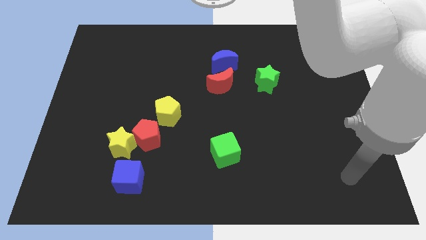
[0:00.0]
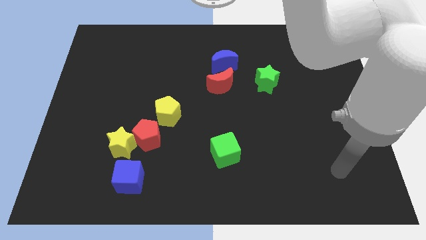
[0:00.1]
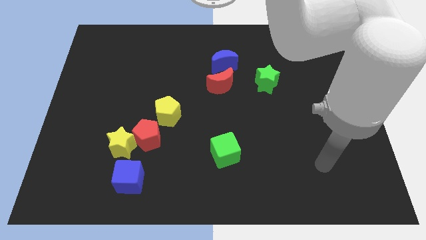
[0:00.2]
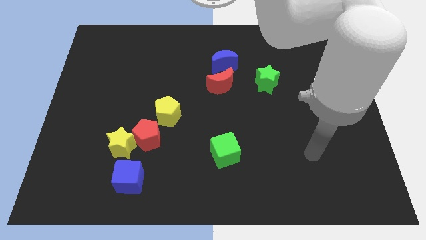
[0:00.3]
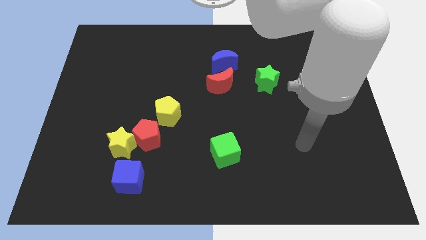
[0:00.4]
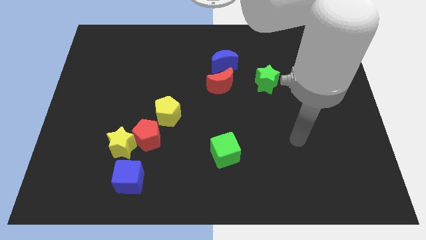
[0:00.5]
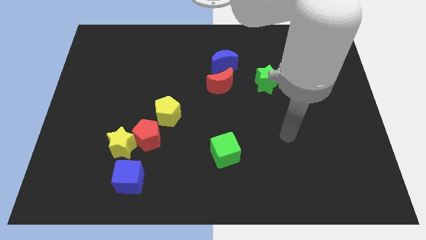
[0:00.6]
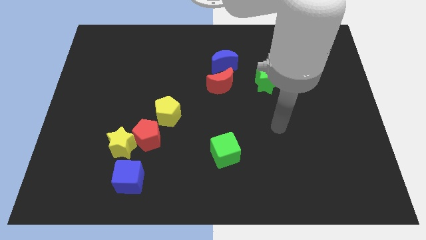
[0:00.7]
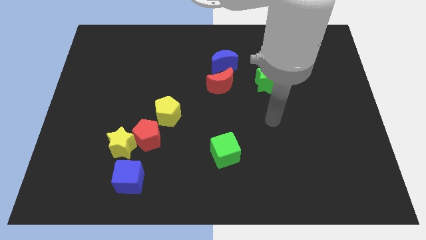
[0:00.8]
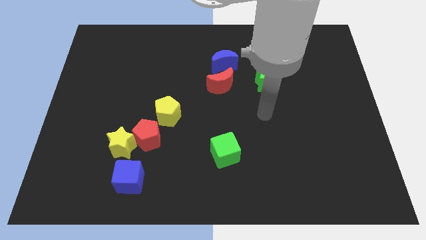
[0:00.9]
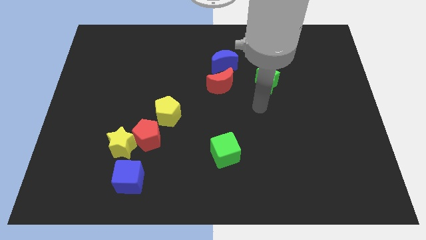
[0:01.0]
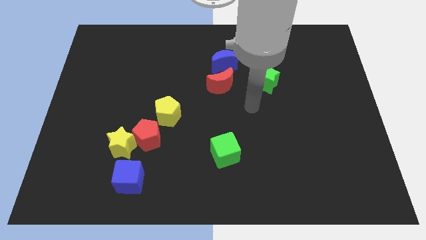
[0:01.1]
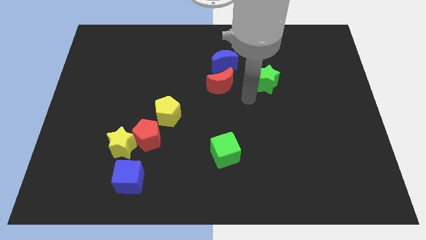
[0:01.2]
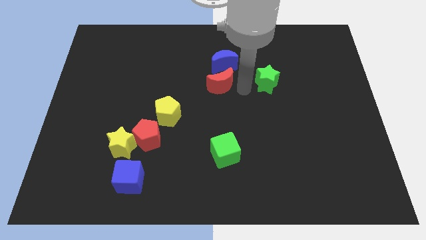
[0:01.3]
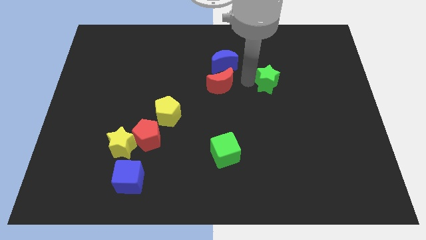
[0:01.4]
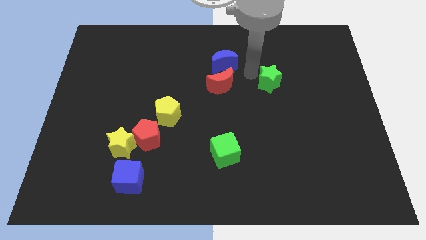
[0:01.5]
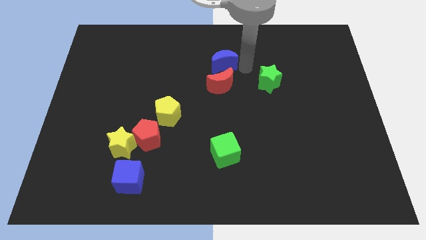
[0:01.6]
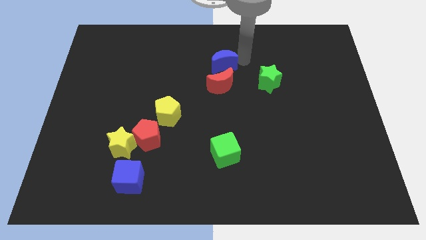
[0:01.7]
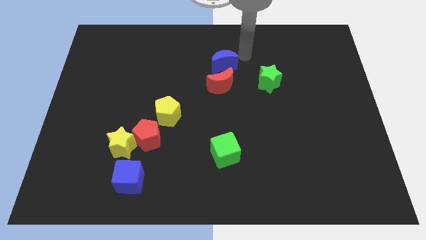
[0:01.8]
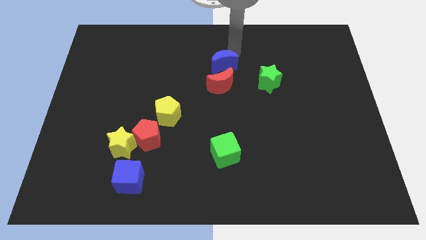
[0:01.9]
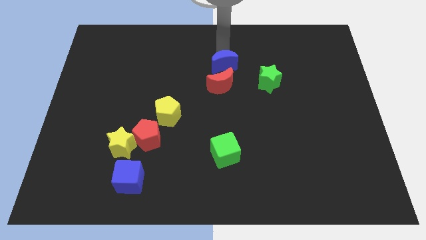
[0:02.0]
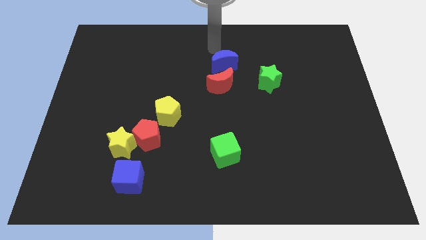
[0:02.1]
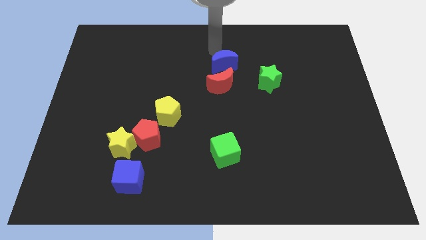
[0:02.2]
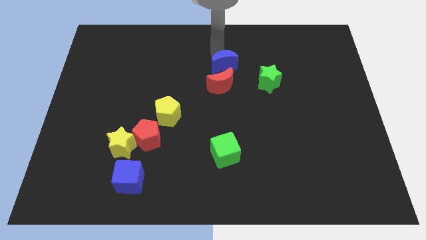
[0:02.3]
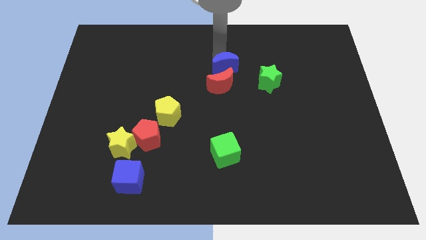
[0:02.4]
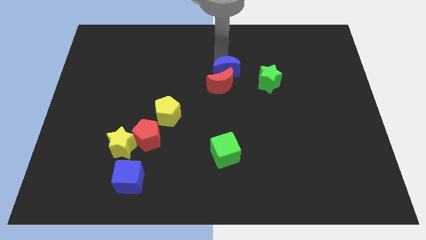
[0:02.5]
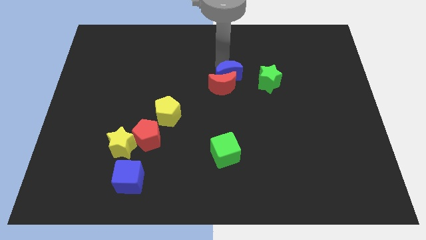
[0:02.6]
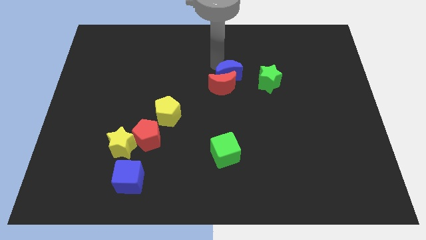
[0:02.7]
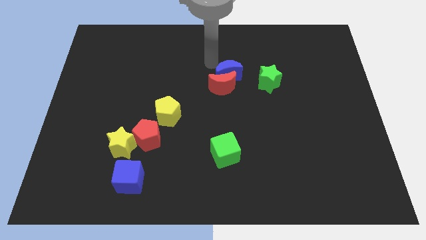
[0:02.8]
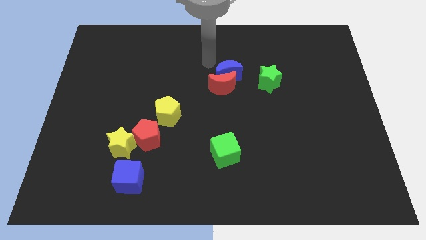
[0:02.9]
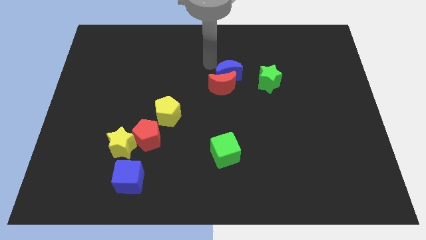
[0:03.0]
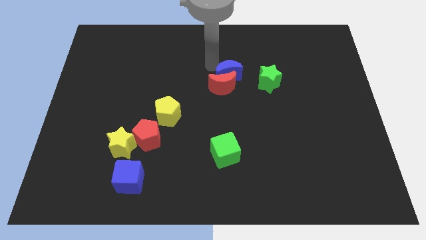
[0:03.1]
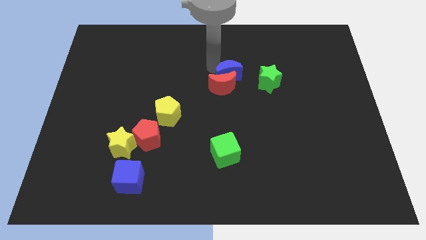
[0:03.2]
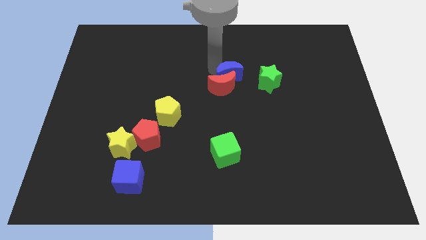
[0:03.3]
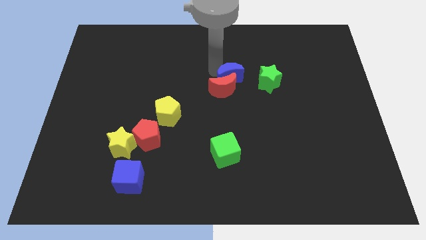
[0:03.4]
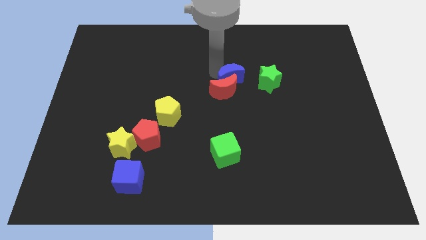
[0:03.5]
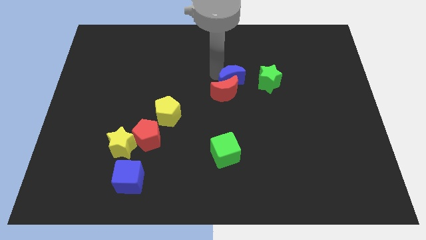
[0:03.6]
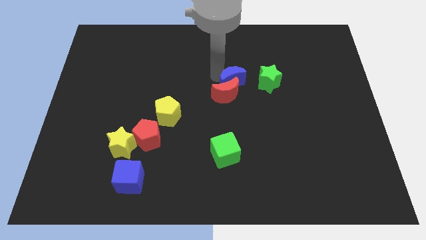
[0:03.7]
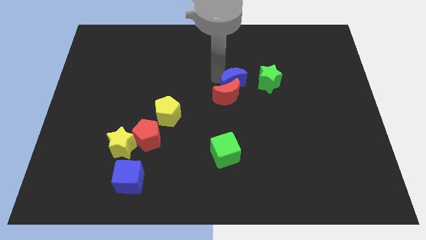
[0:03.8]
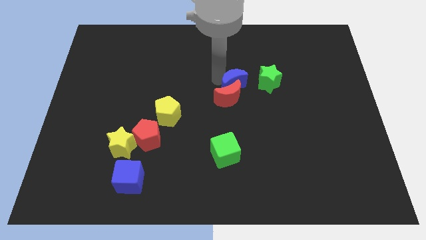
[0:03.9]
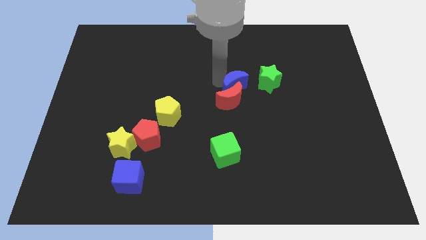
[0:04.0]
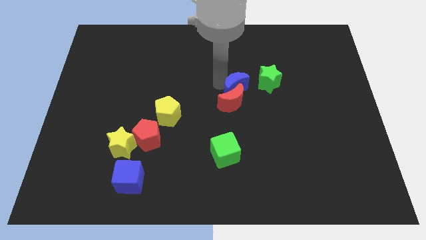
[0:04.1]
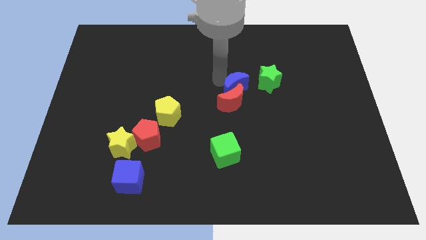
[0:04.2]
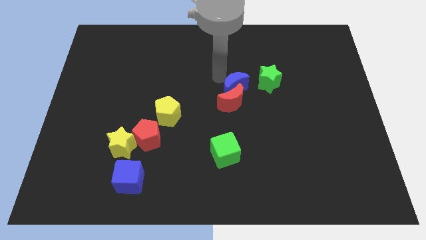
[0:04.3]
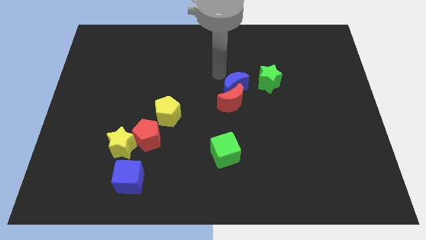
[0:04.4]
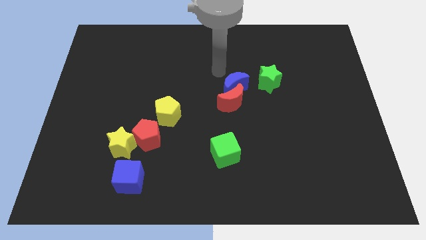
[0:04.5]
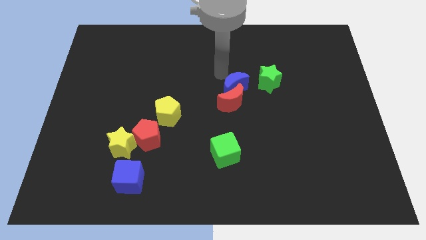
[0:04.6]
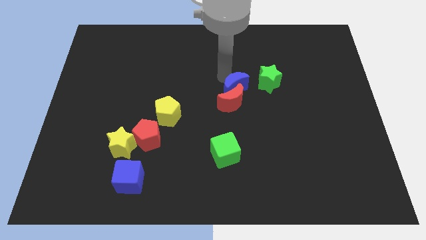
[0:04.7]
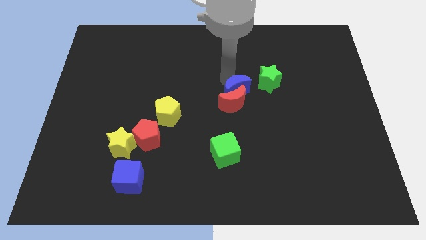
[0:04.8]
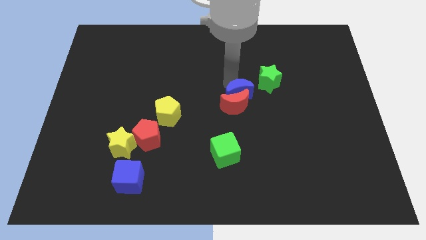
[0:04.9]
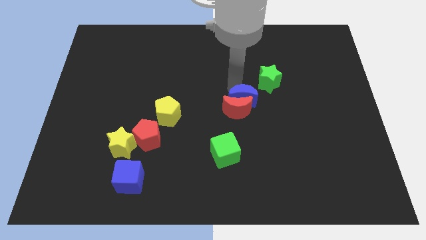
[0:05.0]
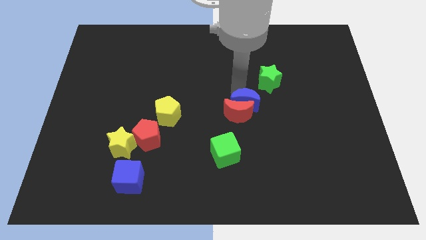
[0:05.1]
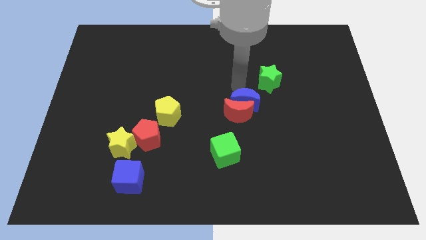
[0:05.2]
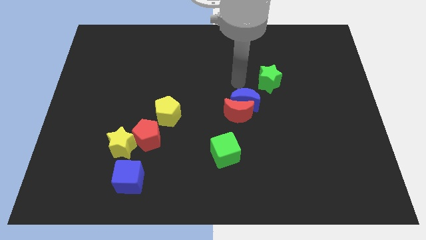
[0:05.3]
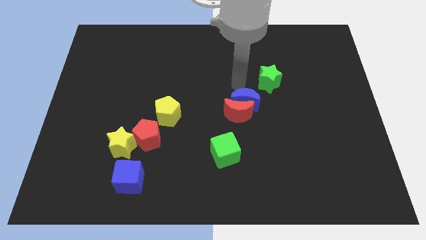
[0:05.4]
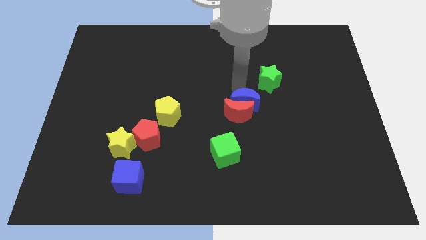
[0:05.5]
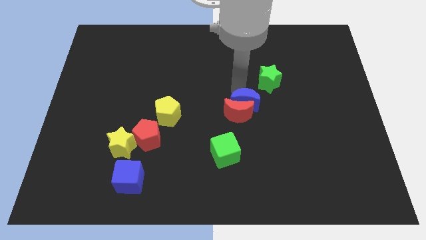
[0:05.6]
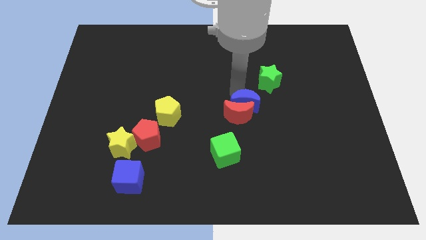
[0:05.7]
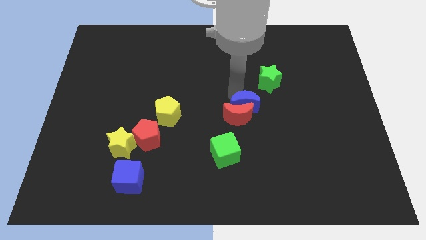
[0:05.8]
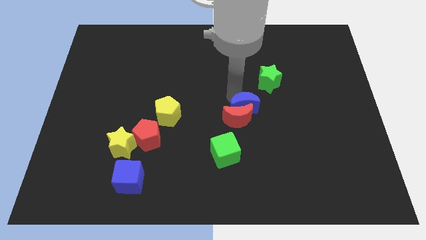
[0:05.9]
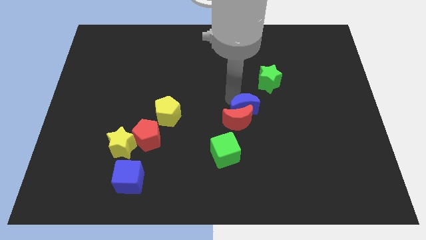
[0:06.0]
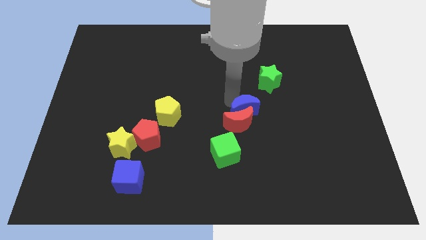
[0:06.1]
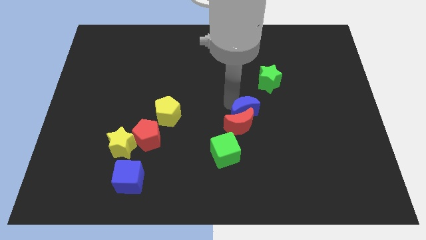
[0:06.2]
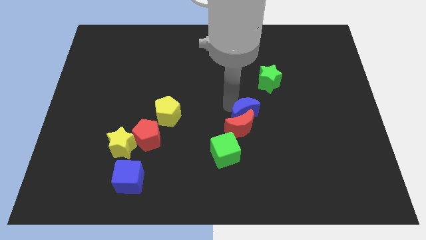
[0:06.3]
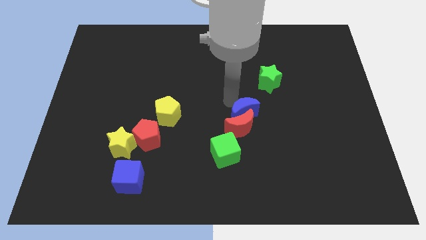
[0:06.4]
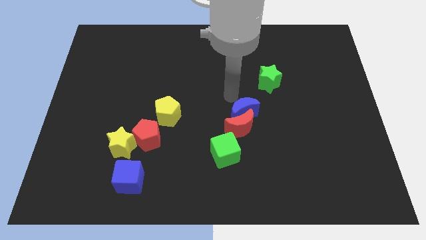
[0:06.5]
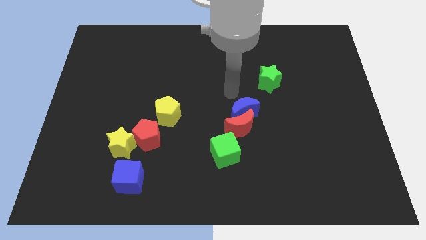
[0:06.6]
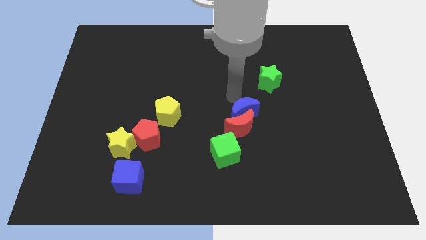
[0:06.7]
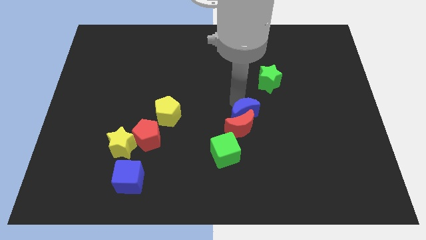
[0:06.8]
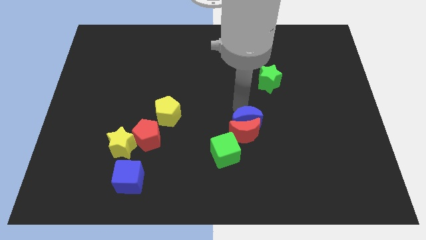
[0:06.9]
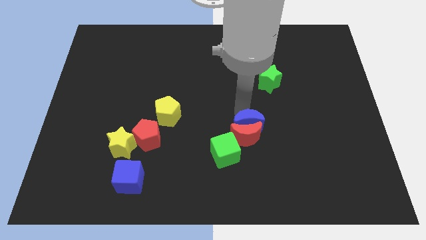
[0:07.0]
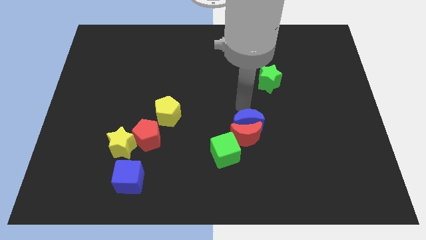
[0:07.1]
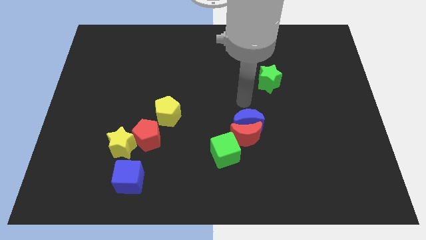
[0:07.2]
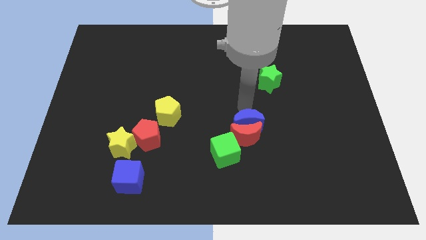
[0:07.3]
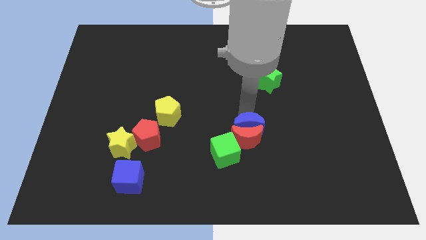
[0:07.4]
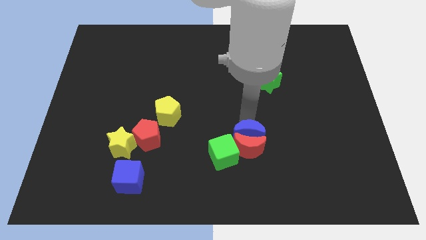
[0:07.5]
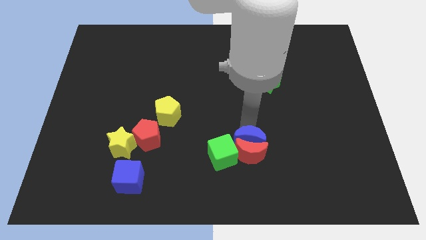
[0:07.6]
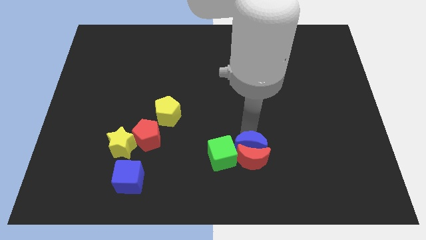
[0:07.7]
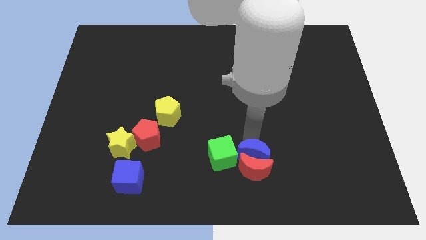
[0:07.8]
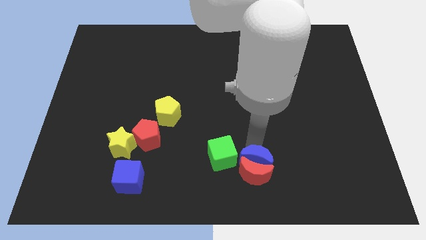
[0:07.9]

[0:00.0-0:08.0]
push the blue moon to the bottom right side of the green cube
